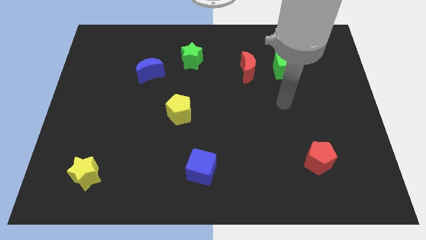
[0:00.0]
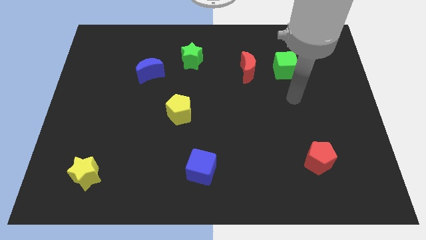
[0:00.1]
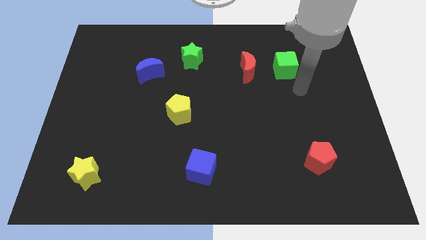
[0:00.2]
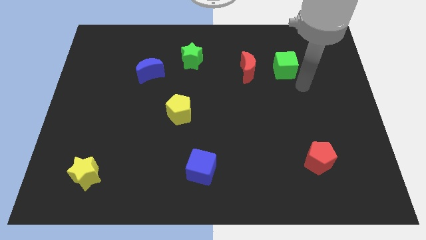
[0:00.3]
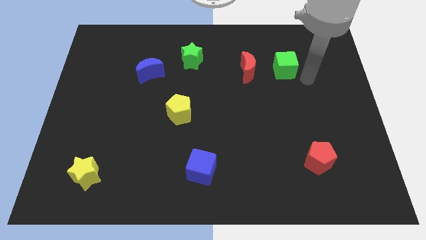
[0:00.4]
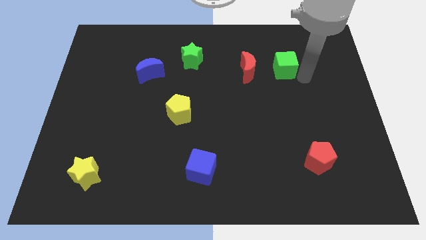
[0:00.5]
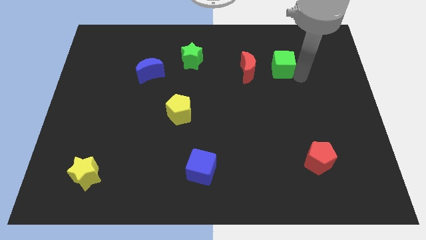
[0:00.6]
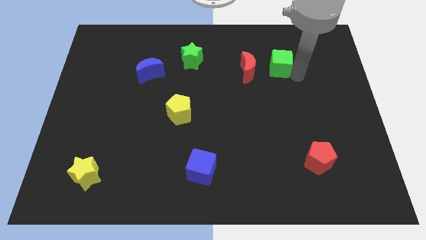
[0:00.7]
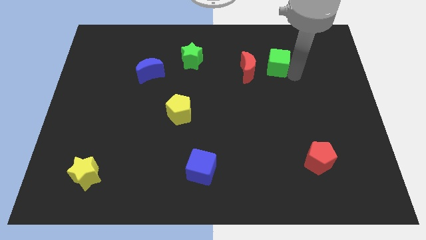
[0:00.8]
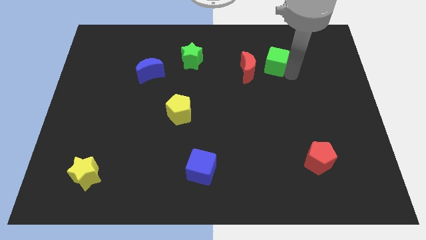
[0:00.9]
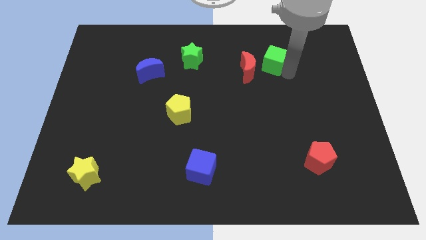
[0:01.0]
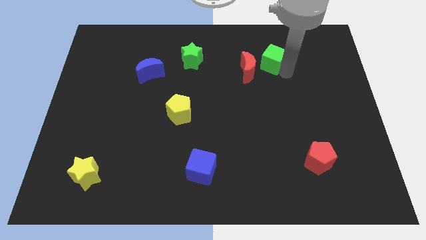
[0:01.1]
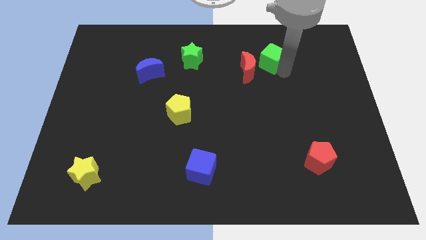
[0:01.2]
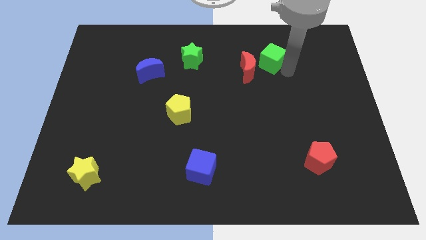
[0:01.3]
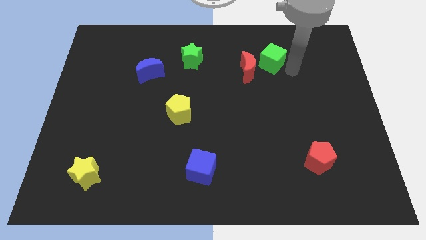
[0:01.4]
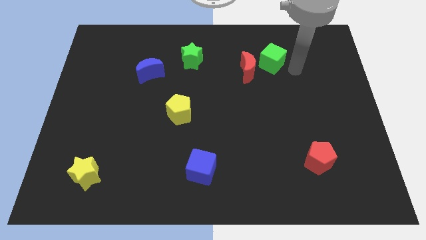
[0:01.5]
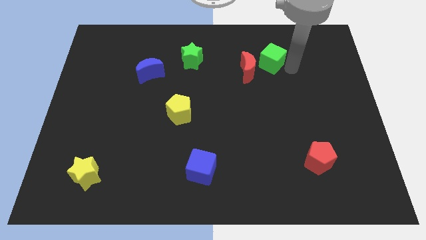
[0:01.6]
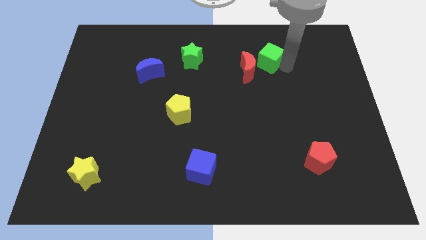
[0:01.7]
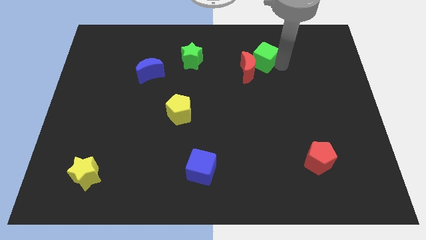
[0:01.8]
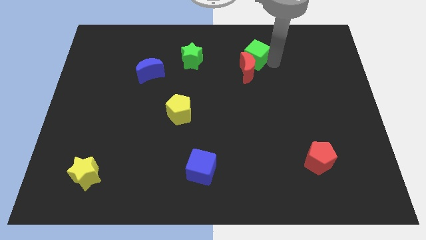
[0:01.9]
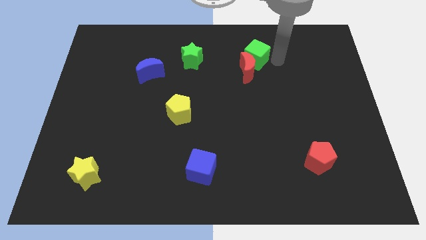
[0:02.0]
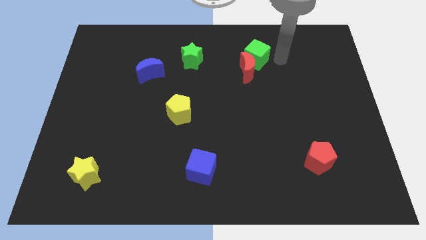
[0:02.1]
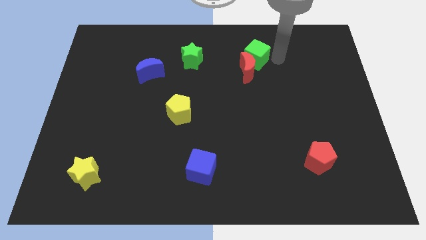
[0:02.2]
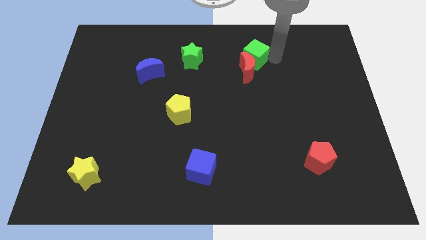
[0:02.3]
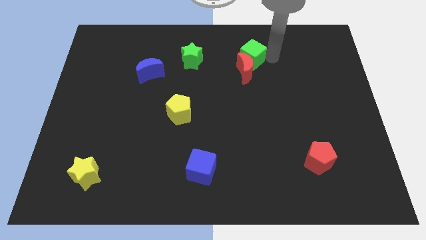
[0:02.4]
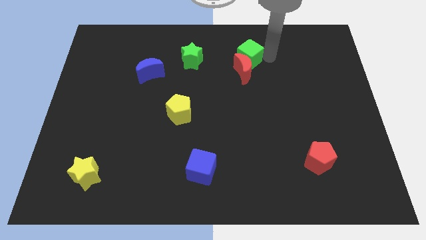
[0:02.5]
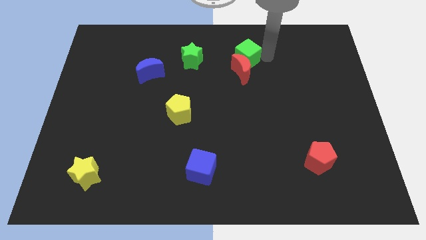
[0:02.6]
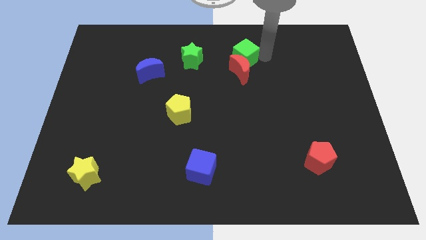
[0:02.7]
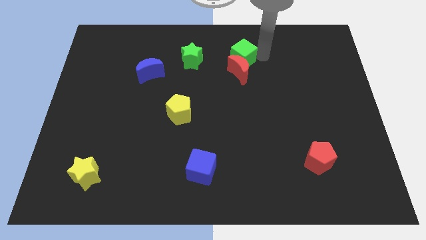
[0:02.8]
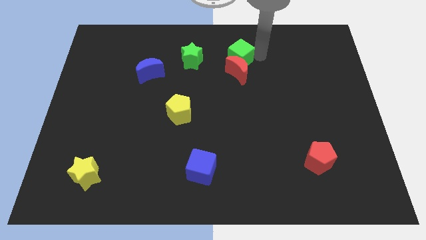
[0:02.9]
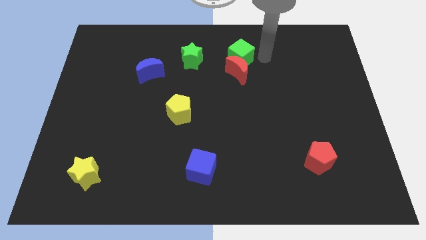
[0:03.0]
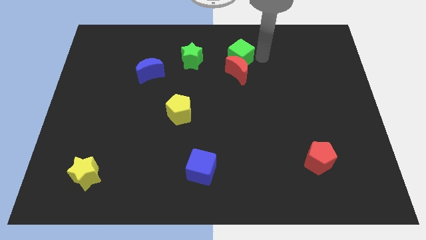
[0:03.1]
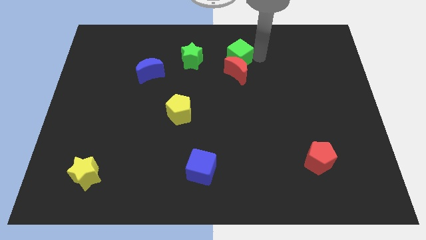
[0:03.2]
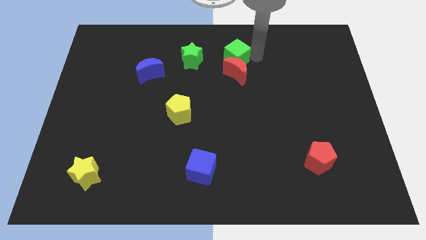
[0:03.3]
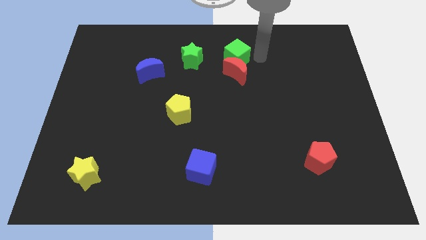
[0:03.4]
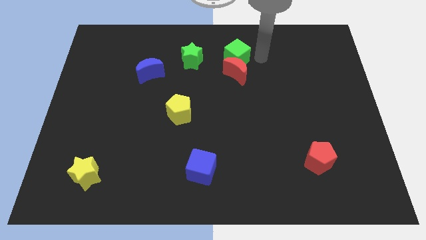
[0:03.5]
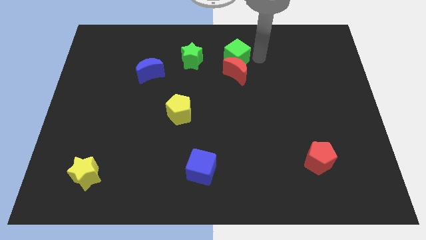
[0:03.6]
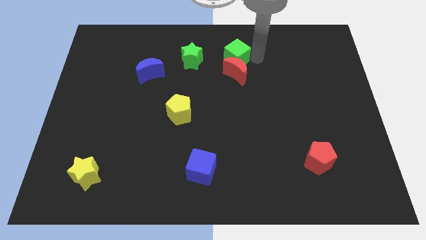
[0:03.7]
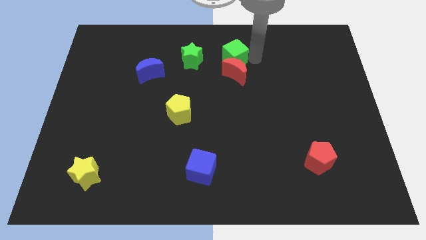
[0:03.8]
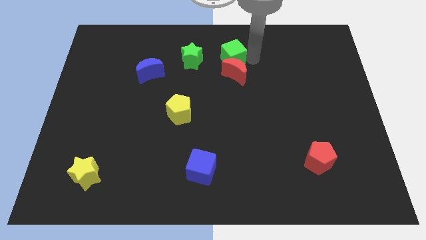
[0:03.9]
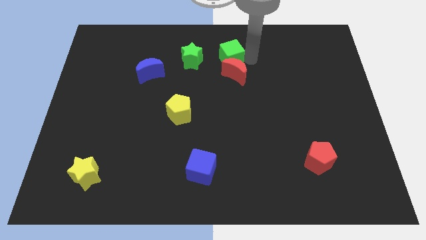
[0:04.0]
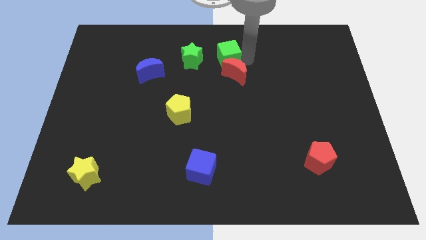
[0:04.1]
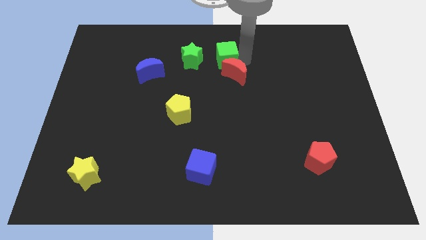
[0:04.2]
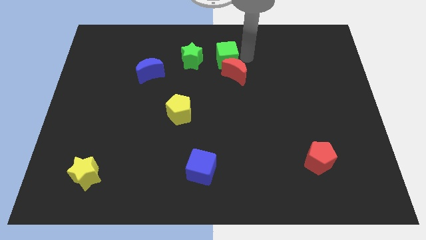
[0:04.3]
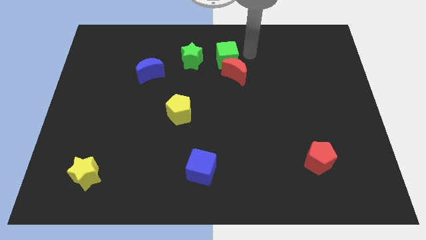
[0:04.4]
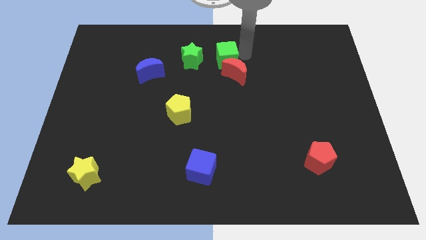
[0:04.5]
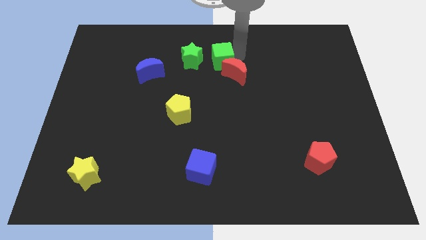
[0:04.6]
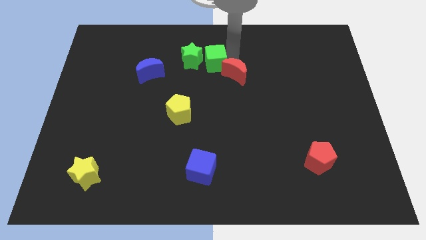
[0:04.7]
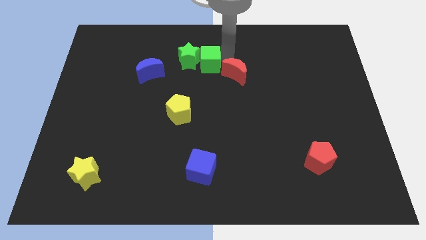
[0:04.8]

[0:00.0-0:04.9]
put the green cube towards the green star

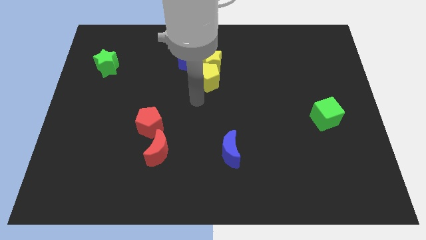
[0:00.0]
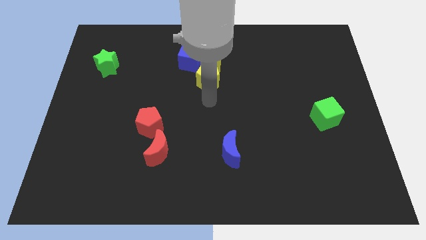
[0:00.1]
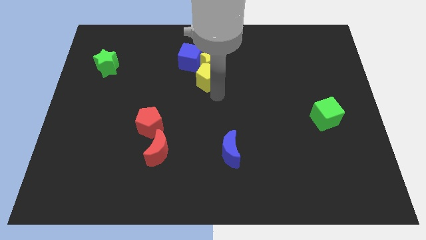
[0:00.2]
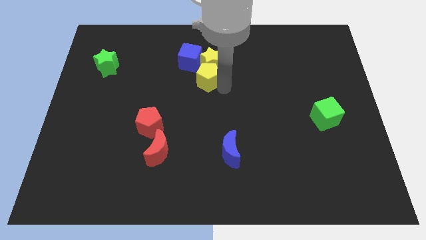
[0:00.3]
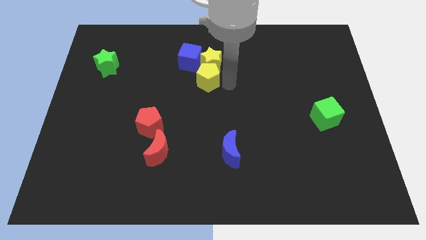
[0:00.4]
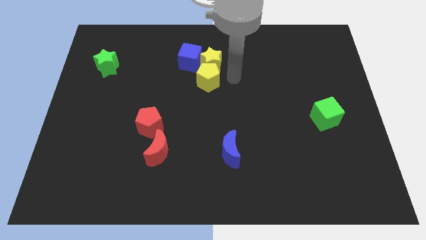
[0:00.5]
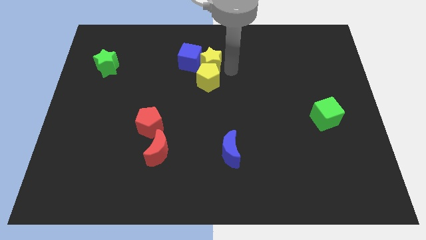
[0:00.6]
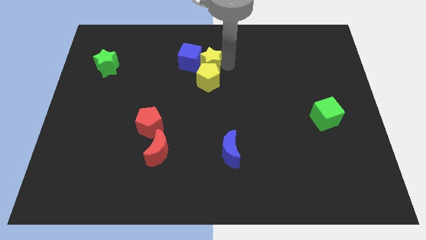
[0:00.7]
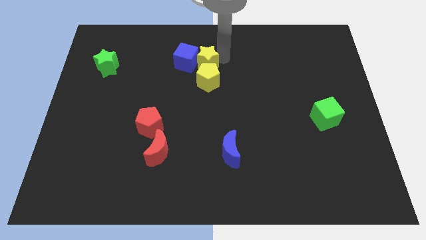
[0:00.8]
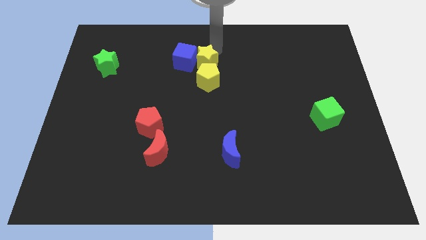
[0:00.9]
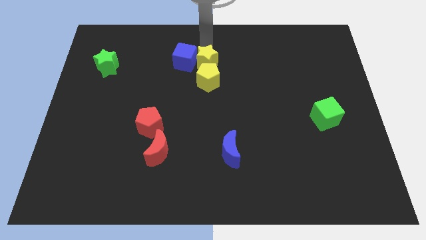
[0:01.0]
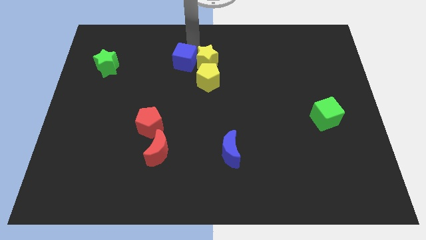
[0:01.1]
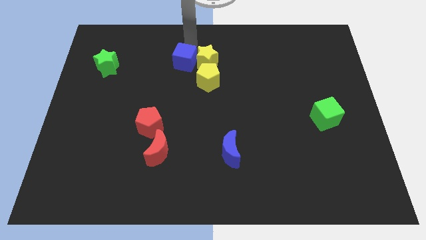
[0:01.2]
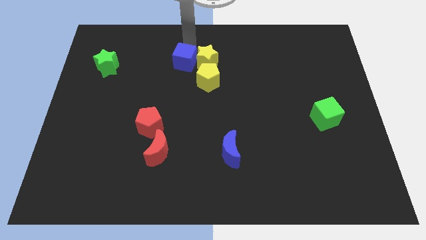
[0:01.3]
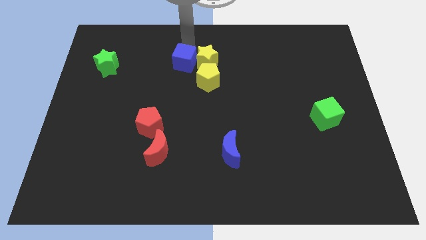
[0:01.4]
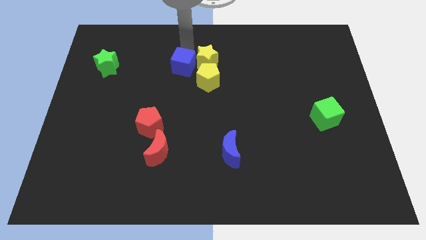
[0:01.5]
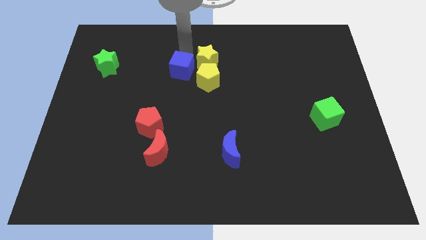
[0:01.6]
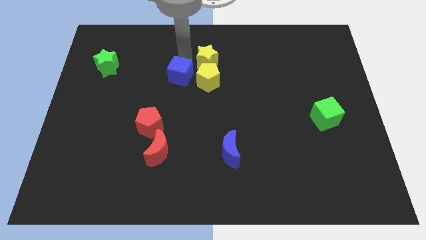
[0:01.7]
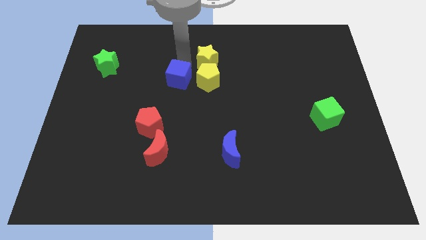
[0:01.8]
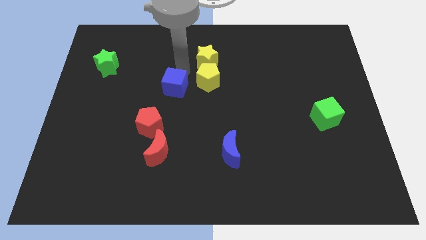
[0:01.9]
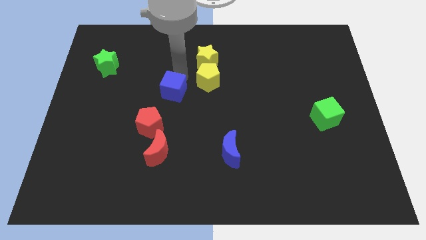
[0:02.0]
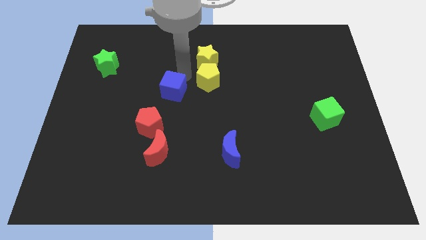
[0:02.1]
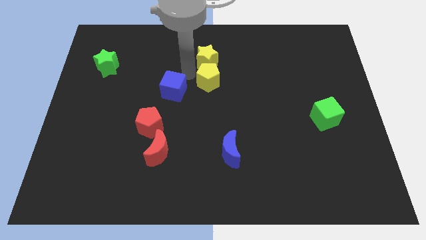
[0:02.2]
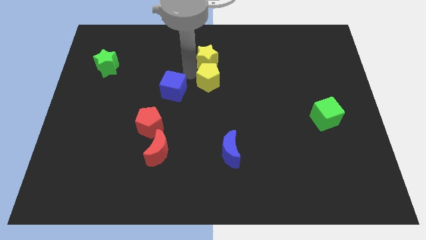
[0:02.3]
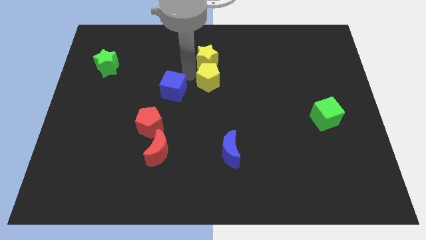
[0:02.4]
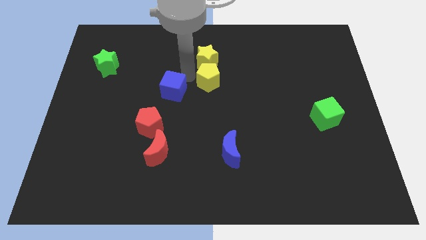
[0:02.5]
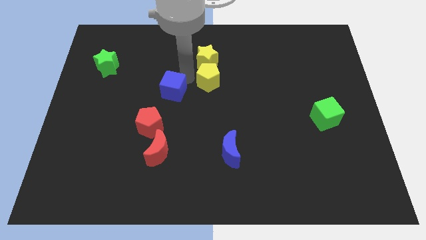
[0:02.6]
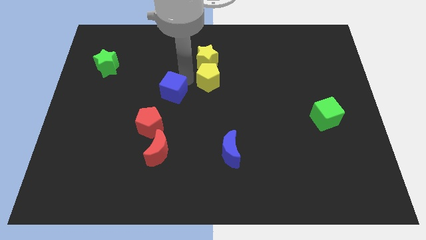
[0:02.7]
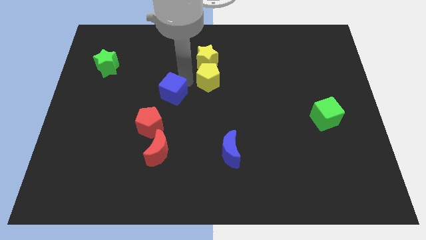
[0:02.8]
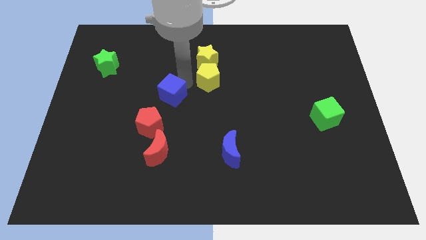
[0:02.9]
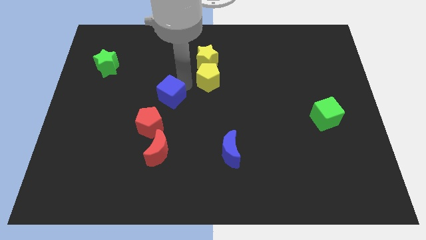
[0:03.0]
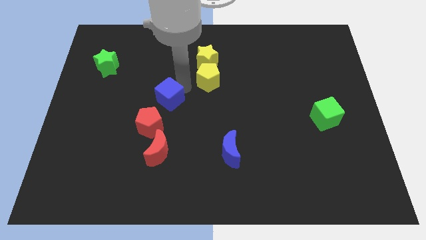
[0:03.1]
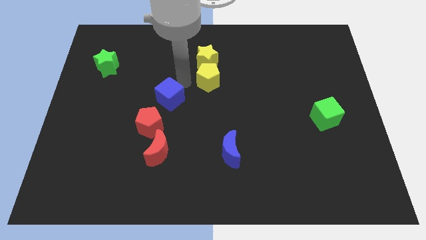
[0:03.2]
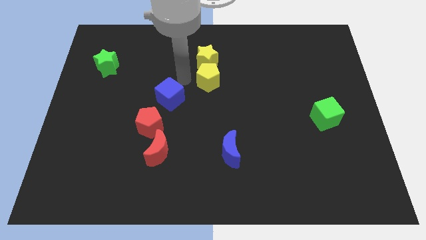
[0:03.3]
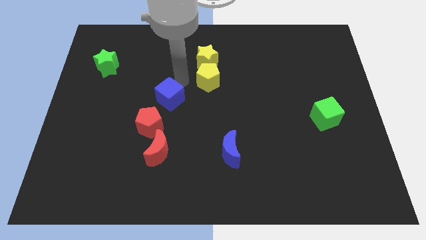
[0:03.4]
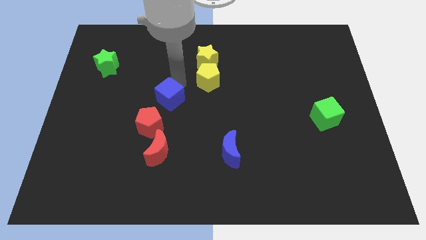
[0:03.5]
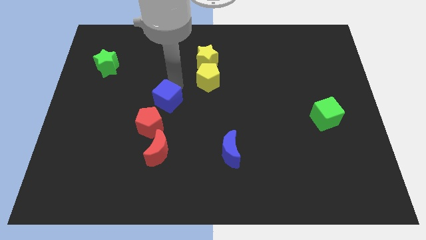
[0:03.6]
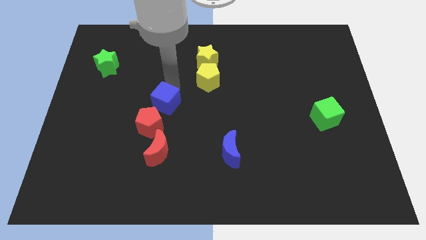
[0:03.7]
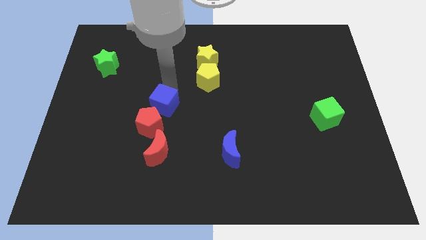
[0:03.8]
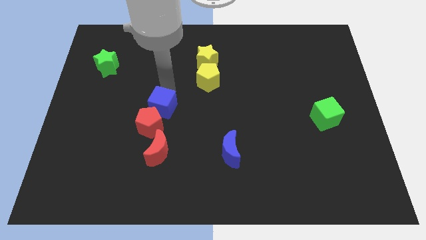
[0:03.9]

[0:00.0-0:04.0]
put the blue cube towards the red pentagon
